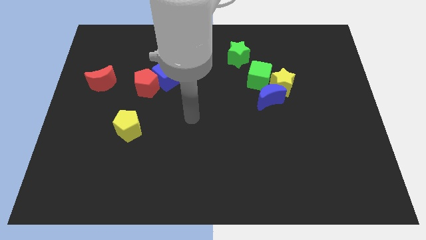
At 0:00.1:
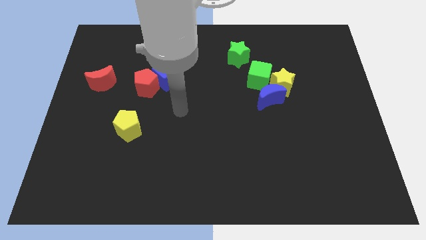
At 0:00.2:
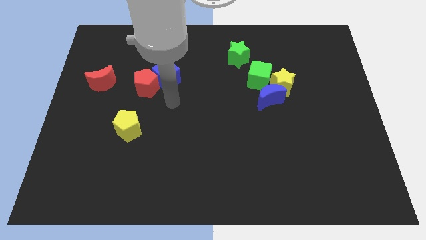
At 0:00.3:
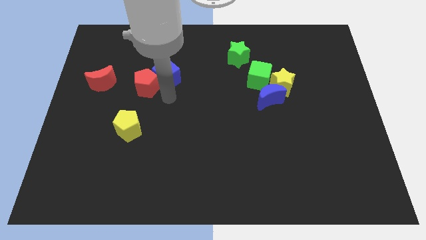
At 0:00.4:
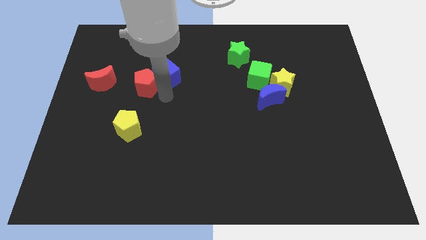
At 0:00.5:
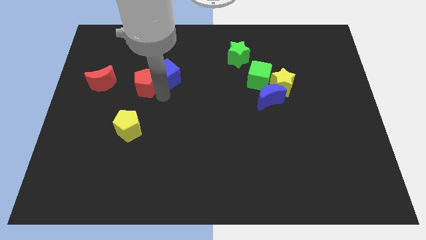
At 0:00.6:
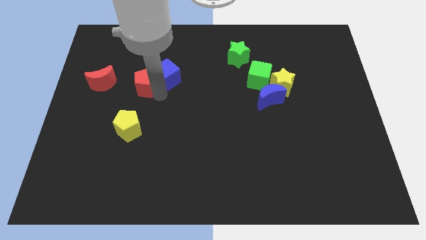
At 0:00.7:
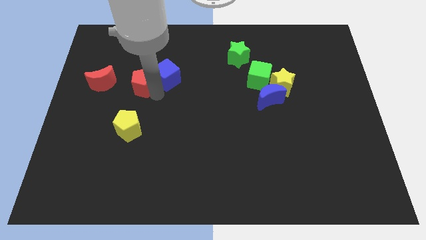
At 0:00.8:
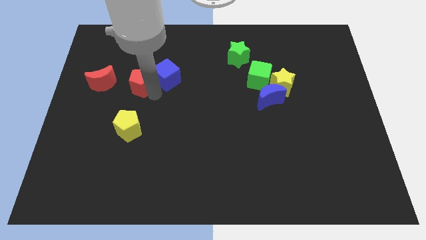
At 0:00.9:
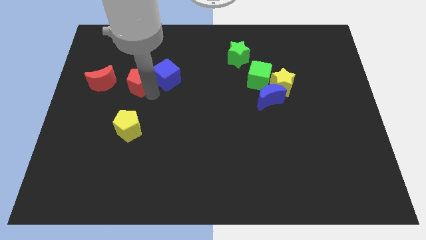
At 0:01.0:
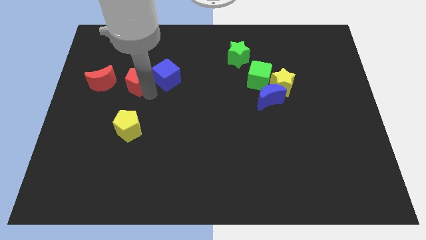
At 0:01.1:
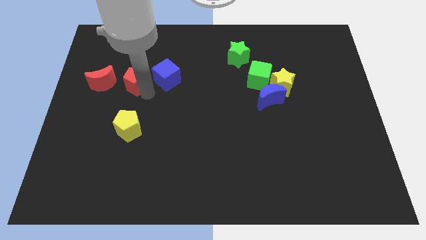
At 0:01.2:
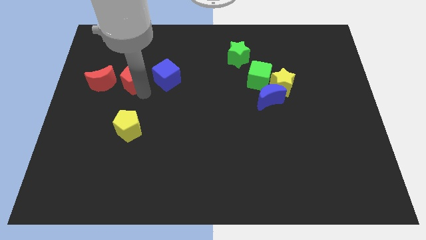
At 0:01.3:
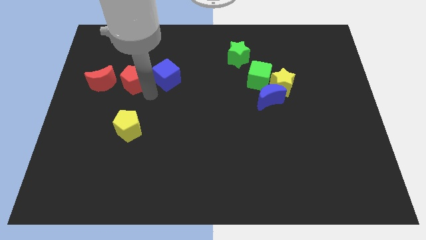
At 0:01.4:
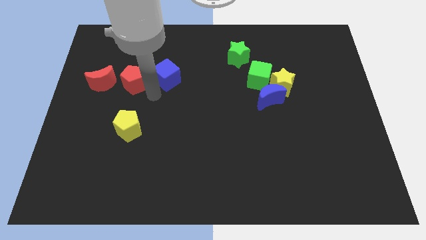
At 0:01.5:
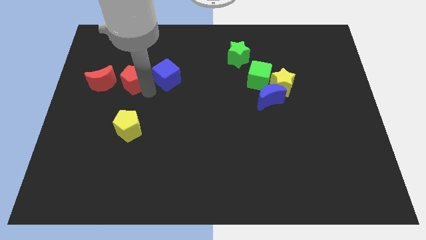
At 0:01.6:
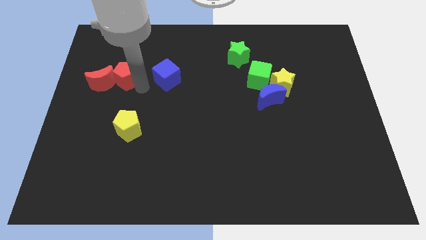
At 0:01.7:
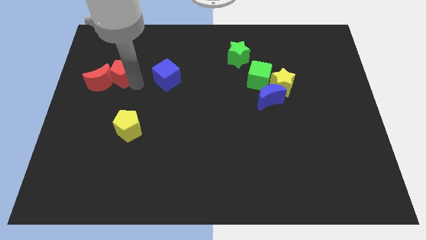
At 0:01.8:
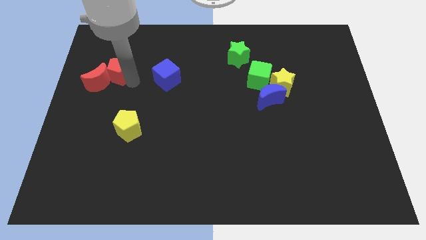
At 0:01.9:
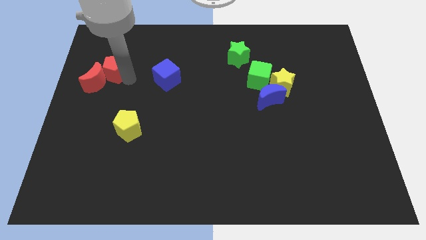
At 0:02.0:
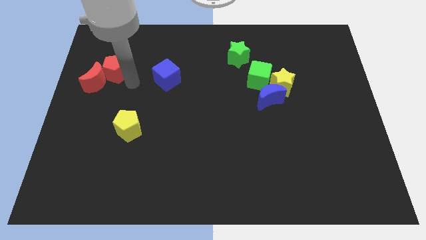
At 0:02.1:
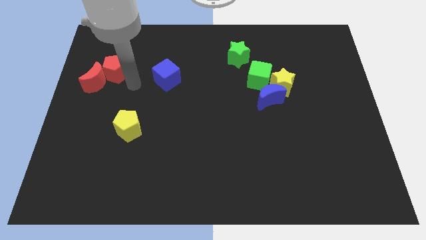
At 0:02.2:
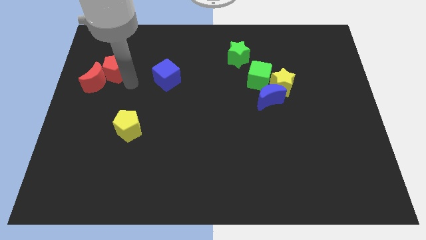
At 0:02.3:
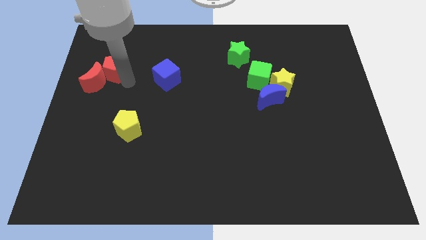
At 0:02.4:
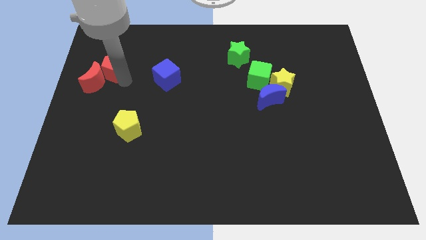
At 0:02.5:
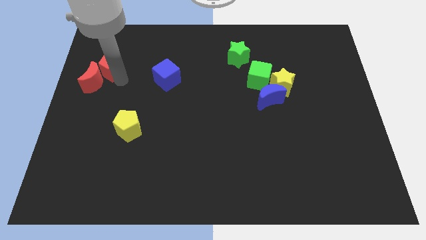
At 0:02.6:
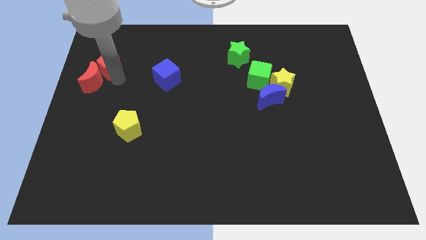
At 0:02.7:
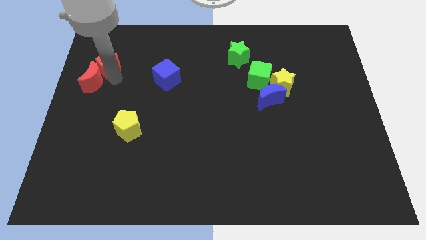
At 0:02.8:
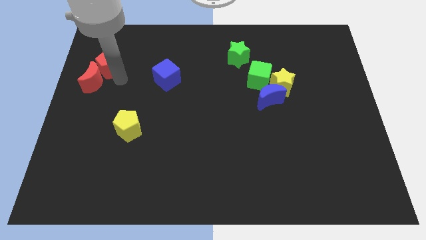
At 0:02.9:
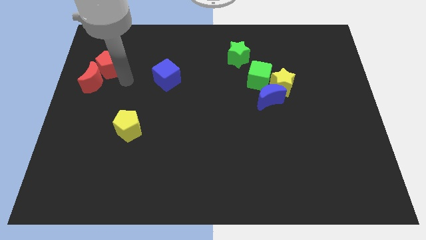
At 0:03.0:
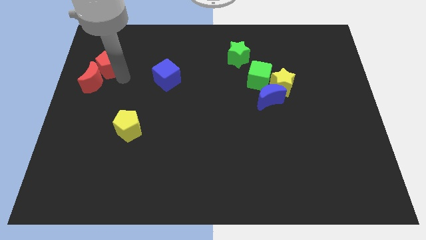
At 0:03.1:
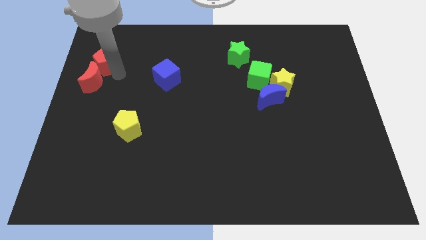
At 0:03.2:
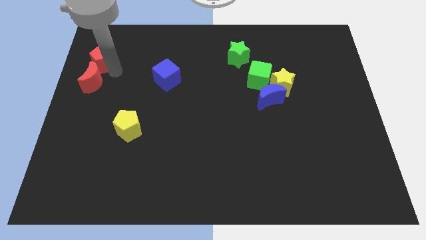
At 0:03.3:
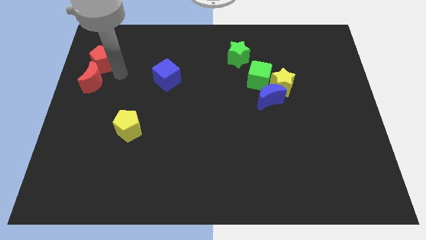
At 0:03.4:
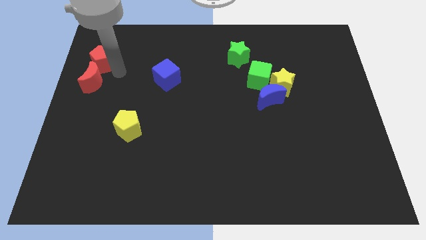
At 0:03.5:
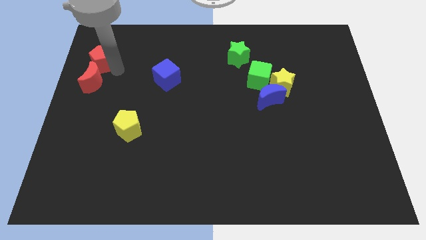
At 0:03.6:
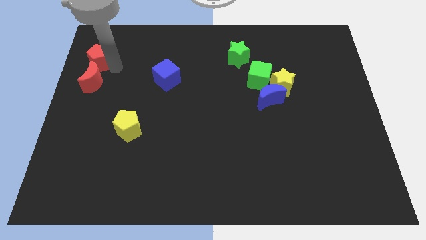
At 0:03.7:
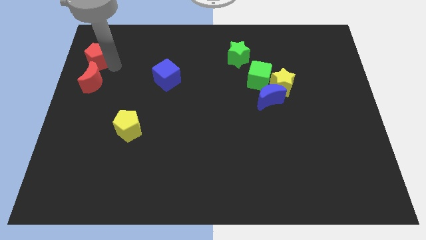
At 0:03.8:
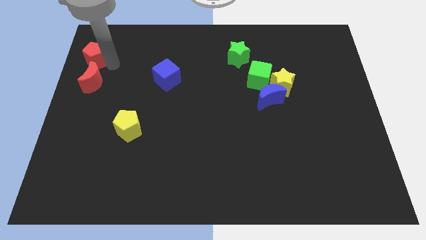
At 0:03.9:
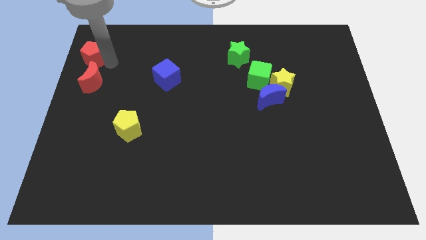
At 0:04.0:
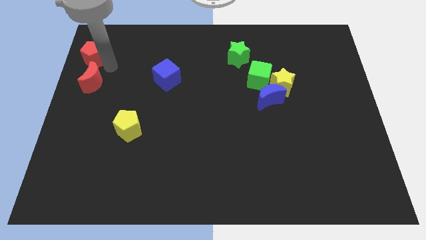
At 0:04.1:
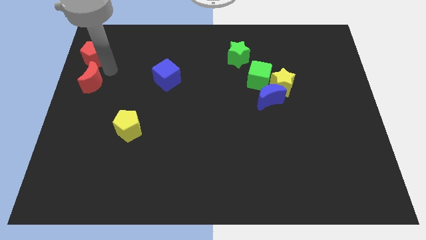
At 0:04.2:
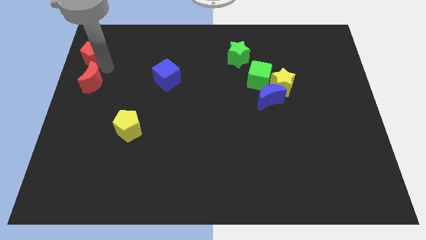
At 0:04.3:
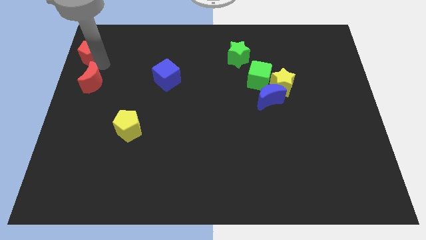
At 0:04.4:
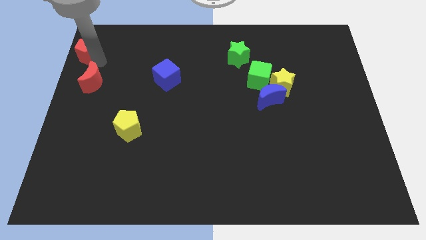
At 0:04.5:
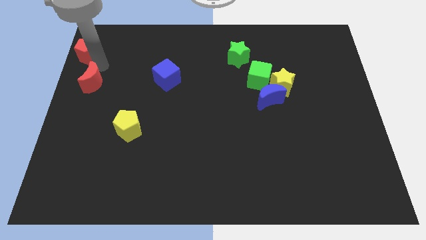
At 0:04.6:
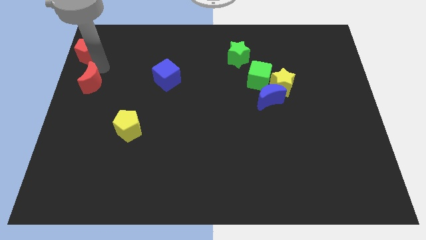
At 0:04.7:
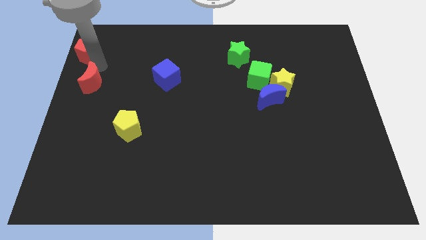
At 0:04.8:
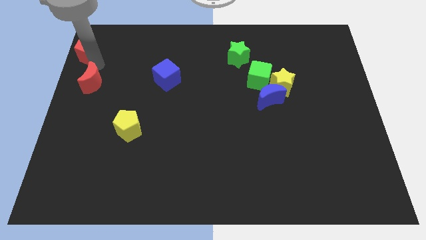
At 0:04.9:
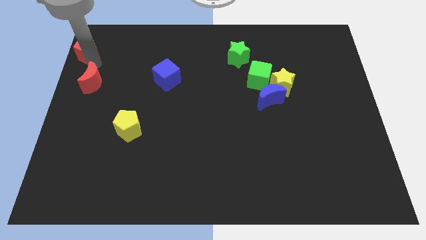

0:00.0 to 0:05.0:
push the red pentagon to the top left

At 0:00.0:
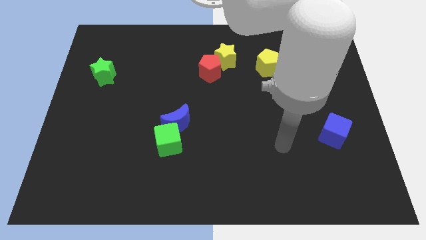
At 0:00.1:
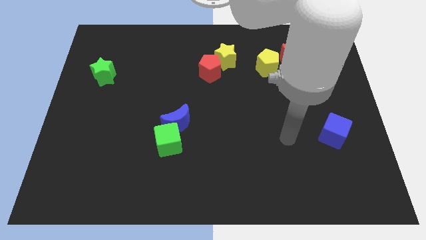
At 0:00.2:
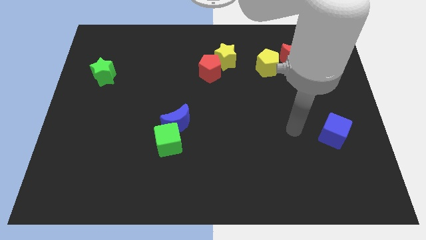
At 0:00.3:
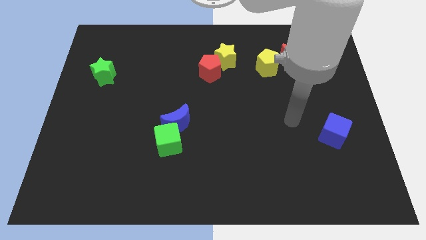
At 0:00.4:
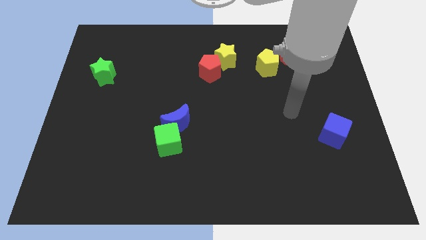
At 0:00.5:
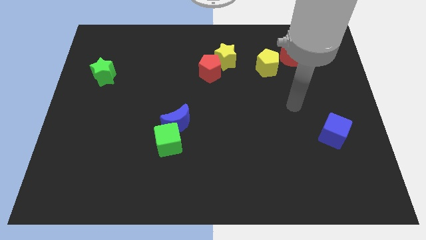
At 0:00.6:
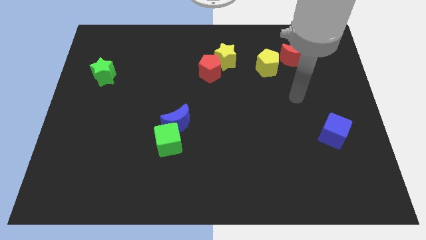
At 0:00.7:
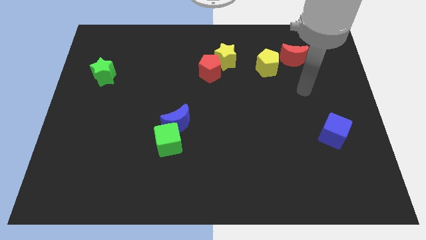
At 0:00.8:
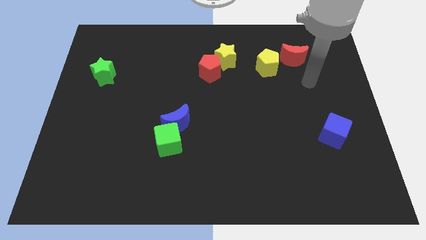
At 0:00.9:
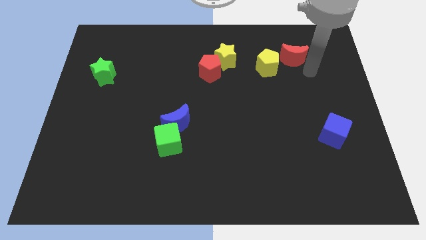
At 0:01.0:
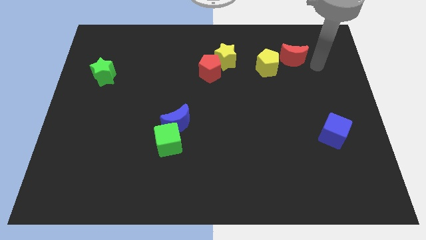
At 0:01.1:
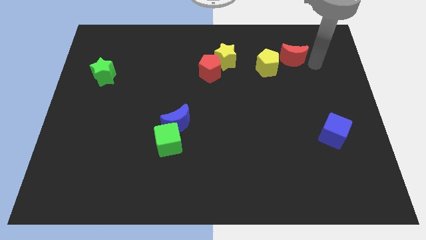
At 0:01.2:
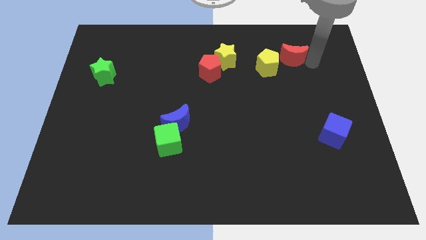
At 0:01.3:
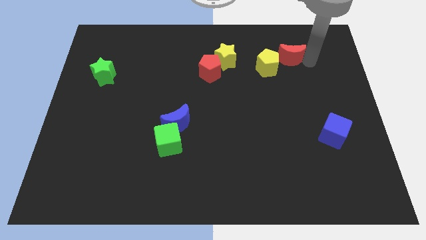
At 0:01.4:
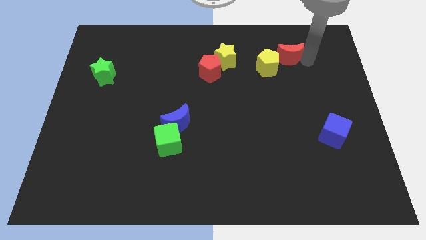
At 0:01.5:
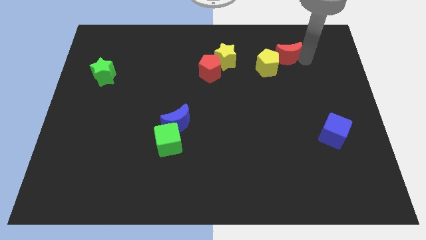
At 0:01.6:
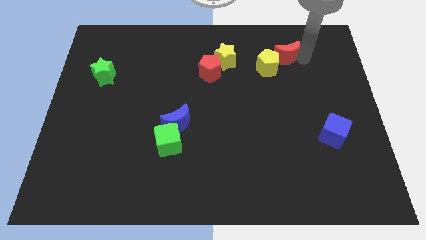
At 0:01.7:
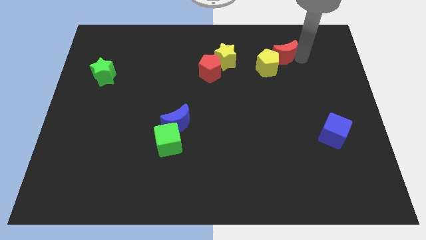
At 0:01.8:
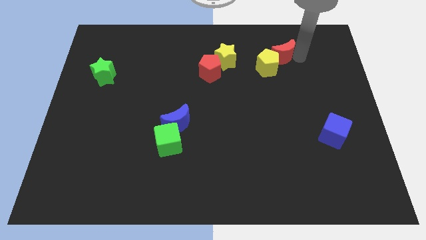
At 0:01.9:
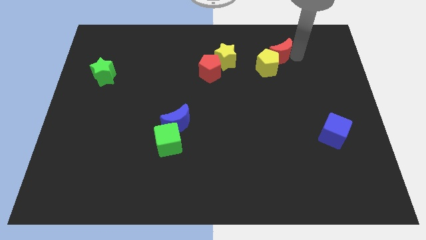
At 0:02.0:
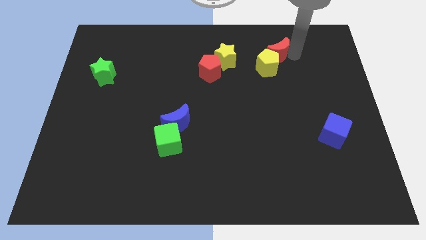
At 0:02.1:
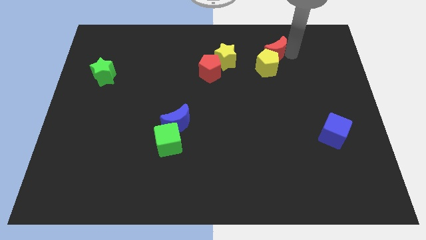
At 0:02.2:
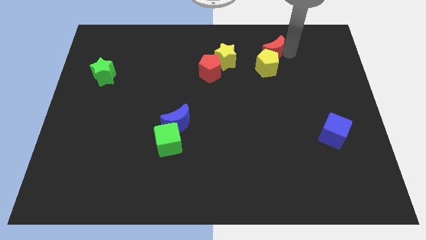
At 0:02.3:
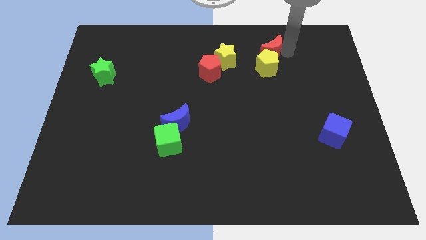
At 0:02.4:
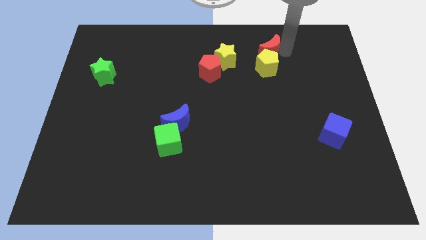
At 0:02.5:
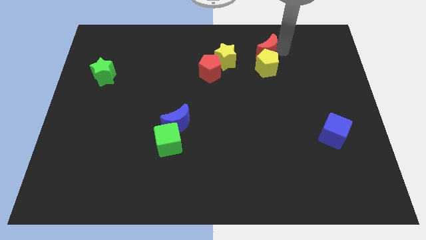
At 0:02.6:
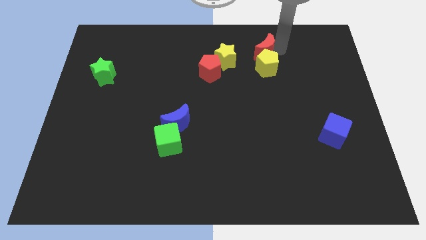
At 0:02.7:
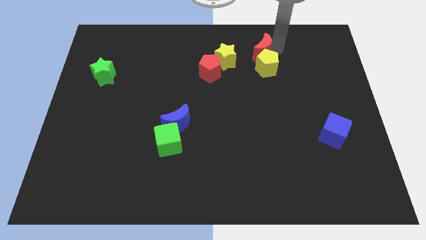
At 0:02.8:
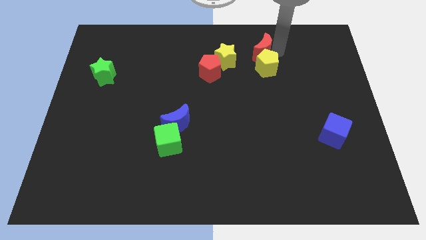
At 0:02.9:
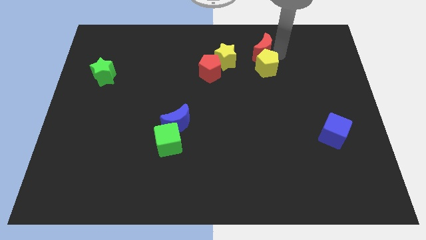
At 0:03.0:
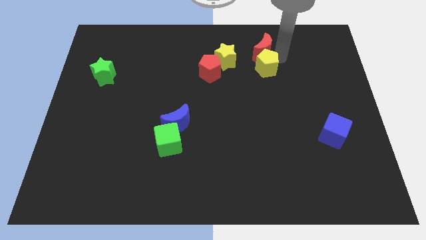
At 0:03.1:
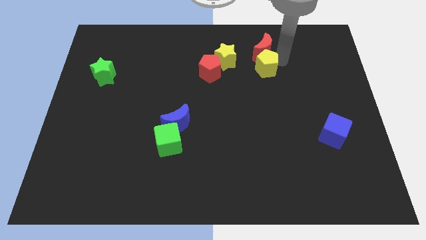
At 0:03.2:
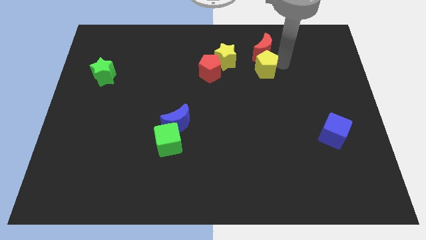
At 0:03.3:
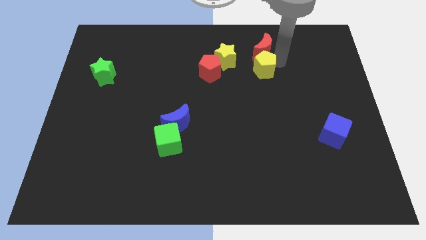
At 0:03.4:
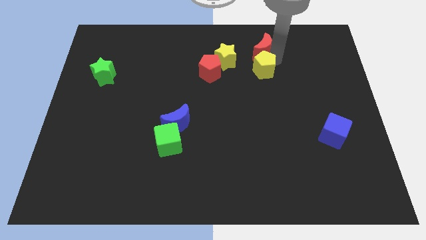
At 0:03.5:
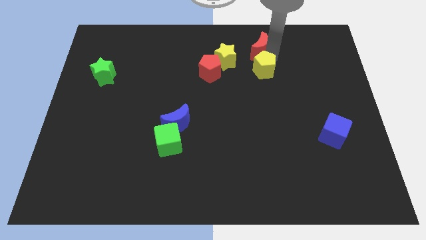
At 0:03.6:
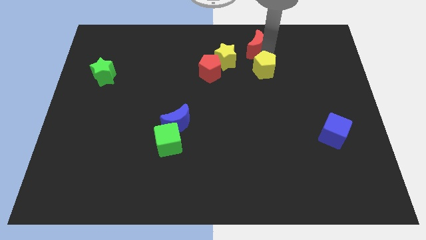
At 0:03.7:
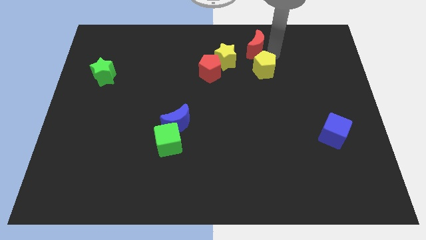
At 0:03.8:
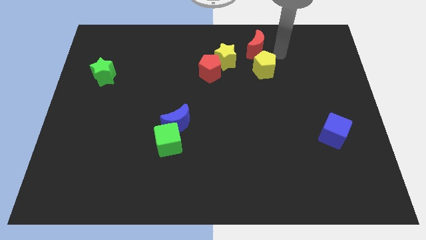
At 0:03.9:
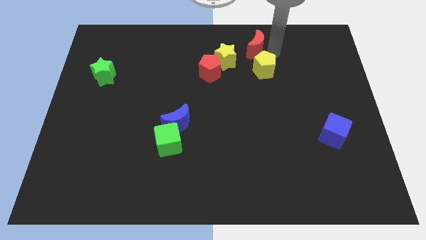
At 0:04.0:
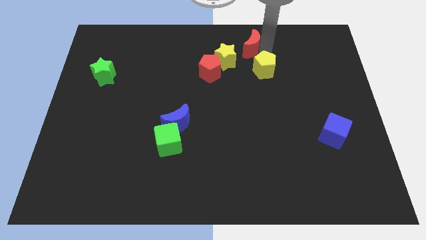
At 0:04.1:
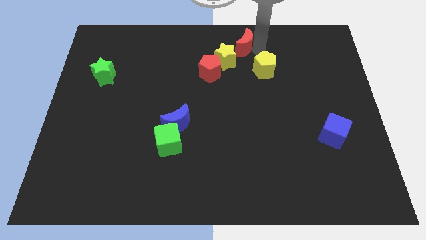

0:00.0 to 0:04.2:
move the red moon to the top
